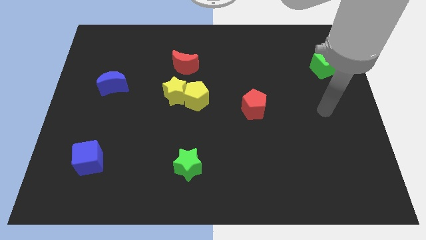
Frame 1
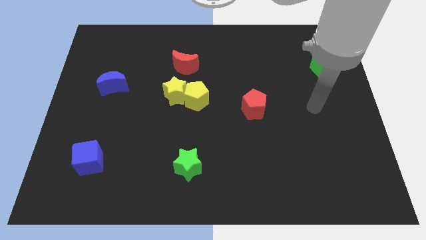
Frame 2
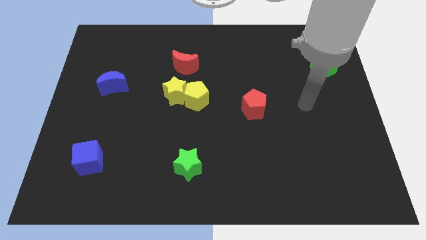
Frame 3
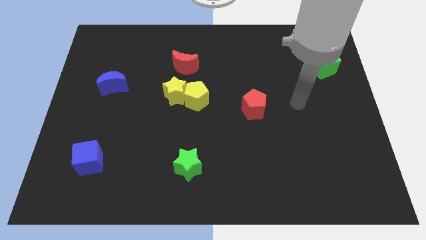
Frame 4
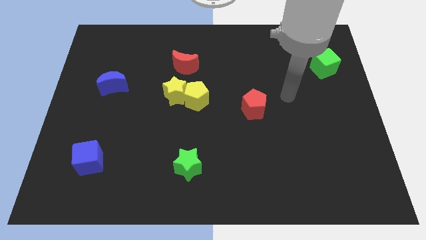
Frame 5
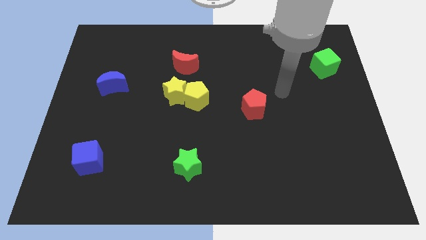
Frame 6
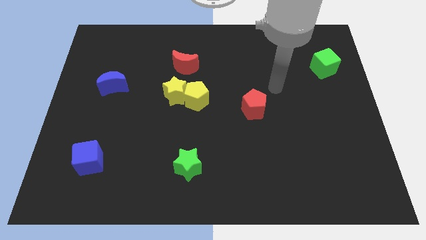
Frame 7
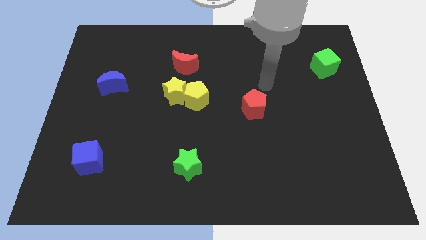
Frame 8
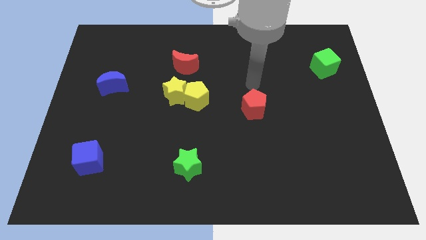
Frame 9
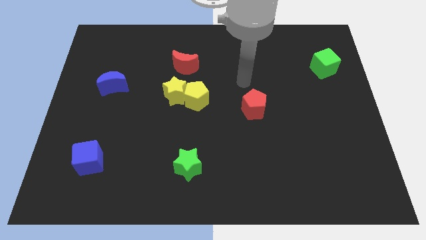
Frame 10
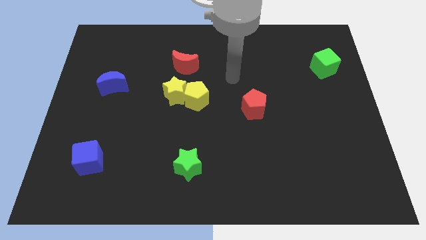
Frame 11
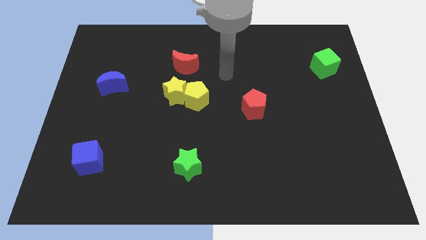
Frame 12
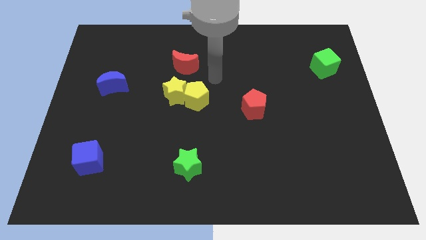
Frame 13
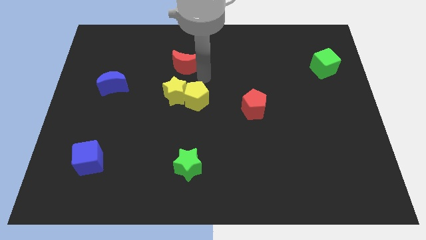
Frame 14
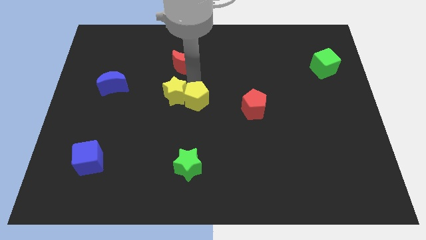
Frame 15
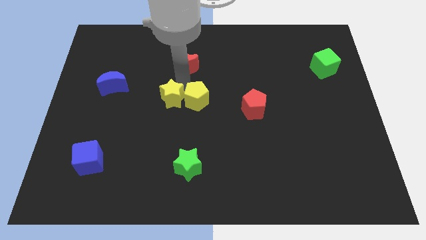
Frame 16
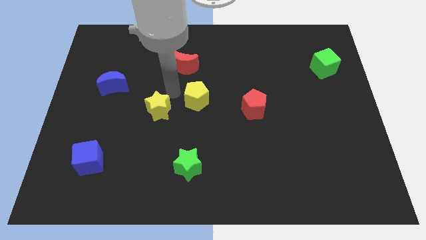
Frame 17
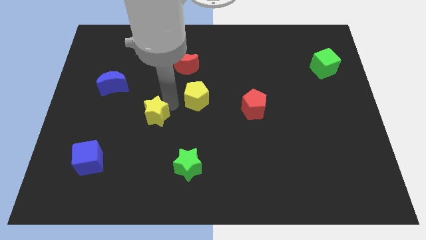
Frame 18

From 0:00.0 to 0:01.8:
separate the yellow pentagon from the yellow star

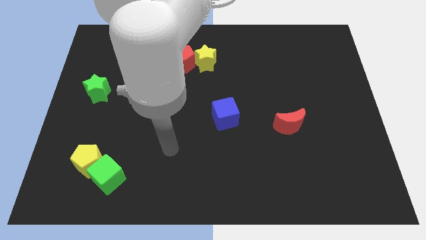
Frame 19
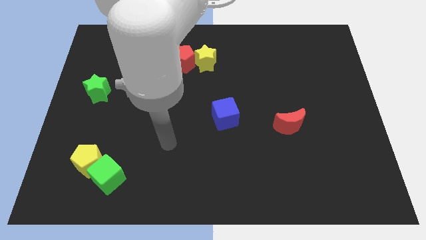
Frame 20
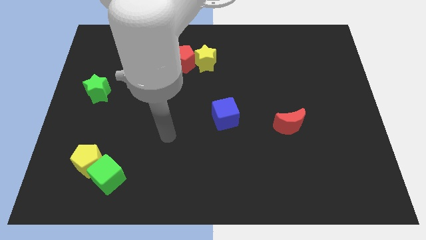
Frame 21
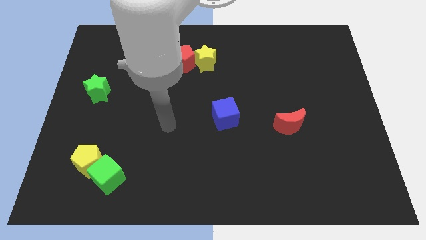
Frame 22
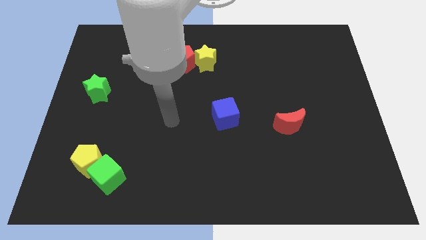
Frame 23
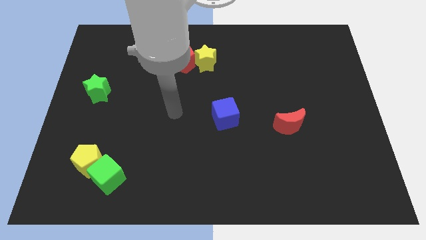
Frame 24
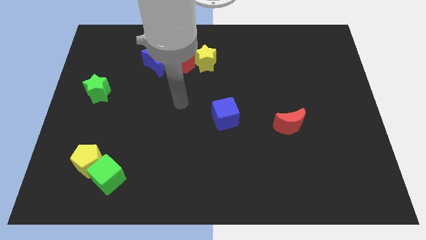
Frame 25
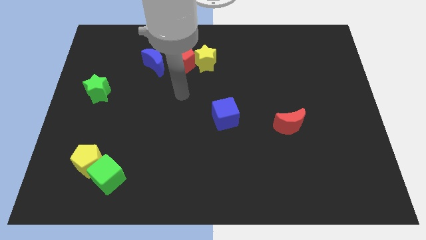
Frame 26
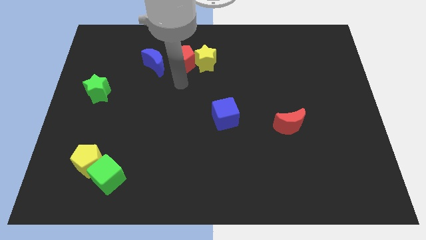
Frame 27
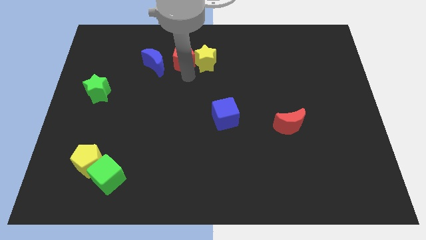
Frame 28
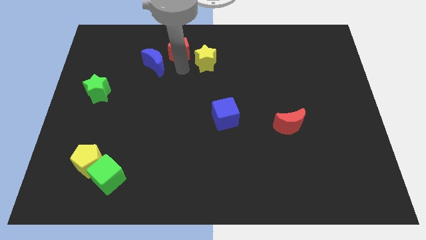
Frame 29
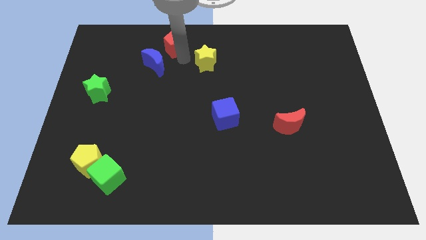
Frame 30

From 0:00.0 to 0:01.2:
move the yellow star away from the red pentagon

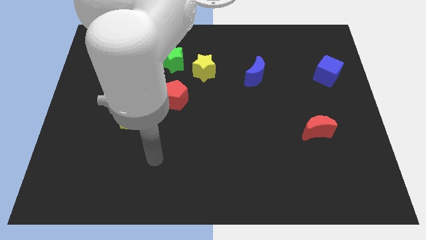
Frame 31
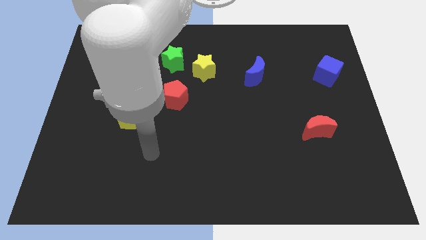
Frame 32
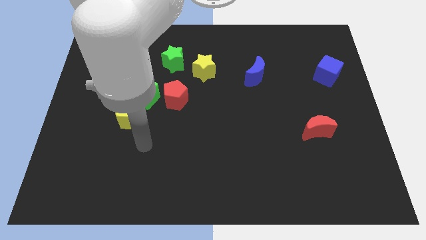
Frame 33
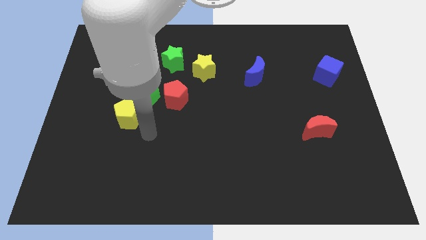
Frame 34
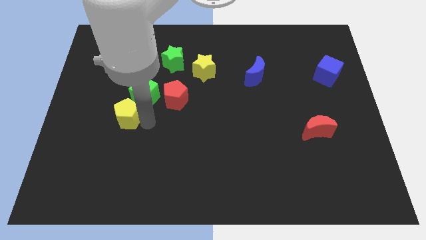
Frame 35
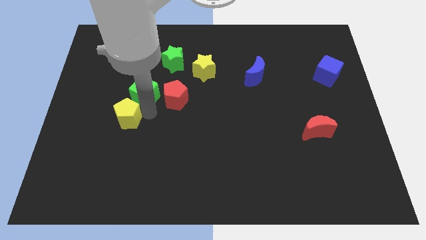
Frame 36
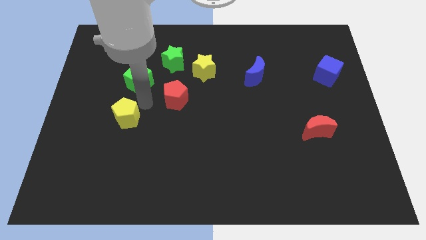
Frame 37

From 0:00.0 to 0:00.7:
move the yellow pentagon away from the green cube

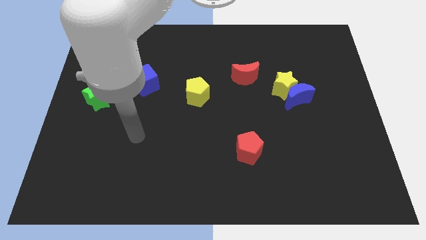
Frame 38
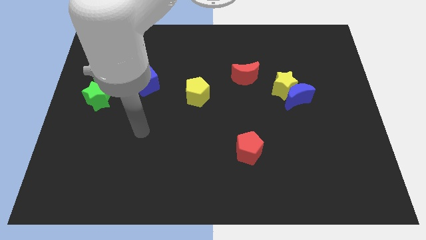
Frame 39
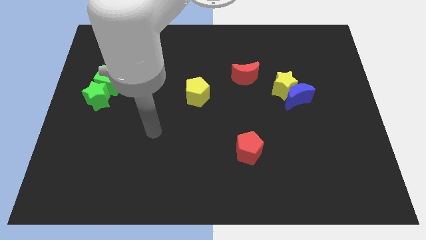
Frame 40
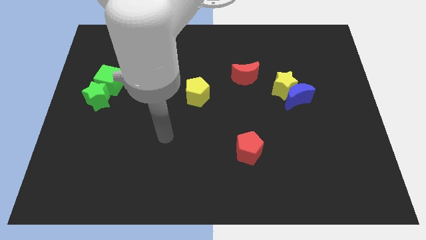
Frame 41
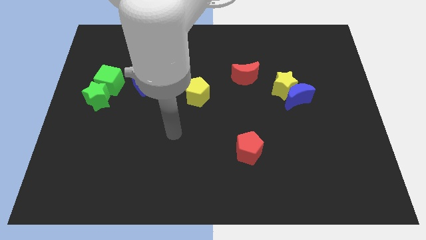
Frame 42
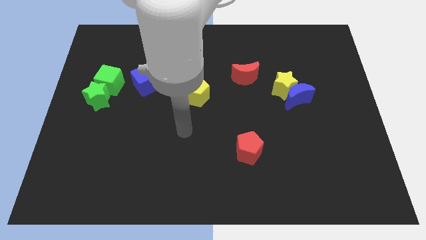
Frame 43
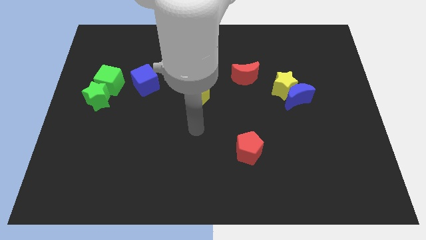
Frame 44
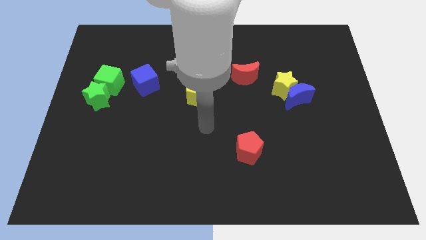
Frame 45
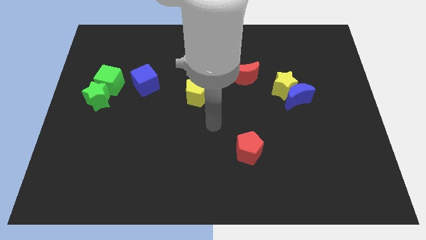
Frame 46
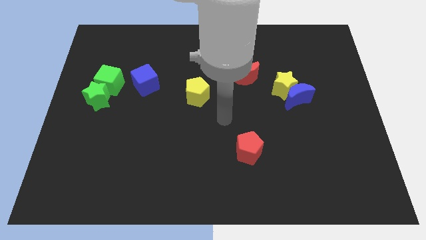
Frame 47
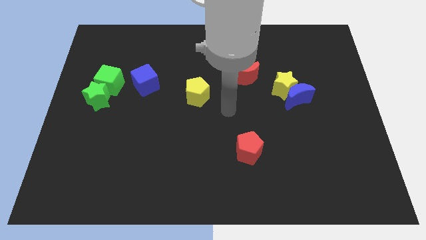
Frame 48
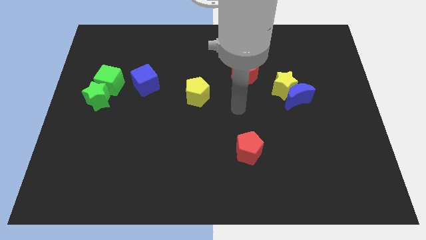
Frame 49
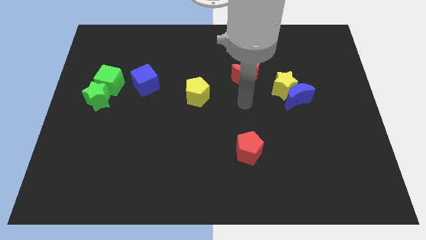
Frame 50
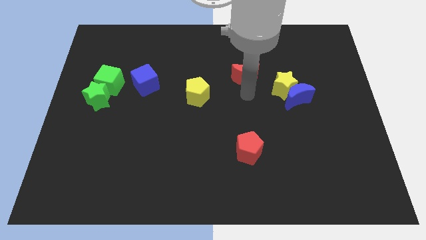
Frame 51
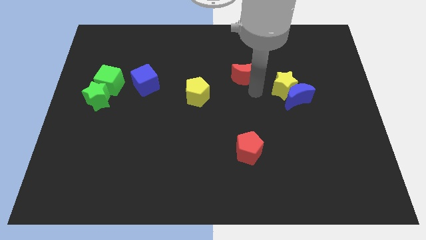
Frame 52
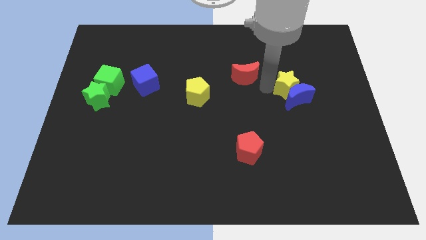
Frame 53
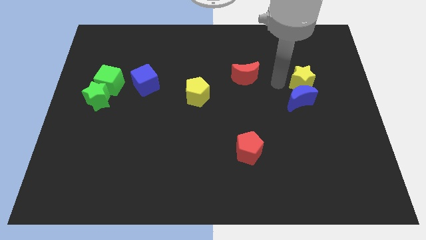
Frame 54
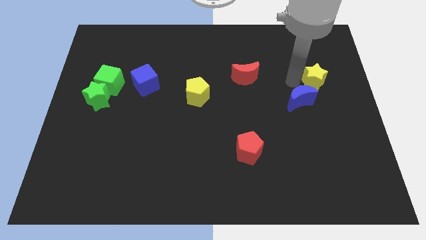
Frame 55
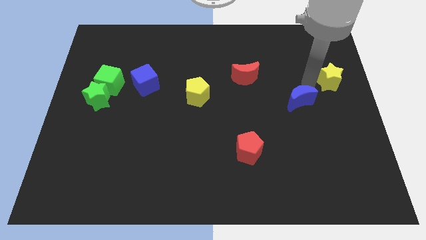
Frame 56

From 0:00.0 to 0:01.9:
pull the blue moon apart from the yellow star

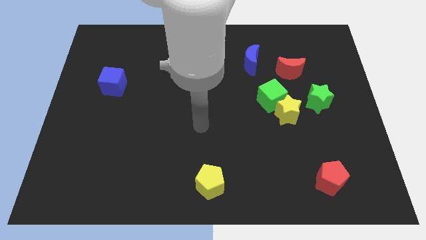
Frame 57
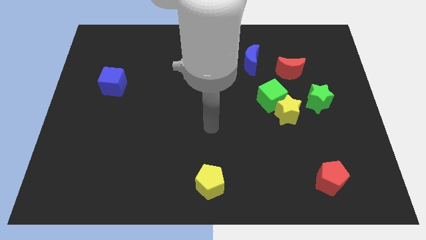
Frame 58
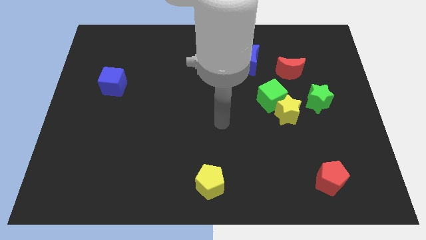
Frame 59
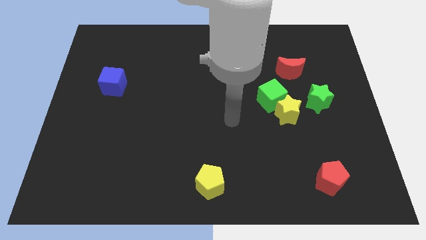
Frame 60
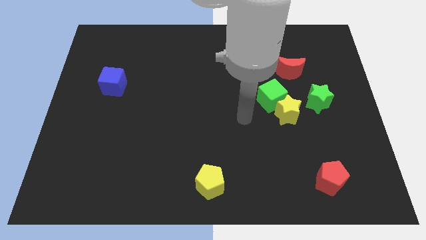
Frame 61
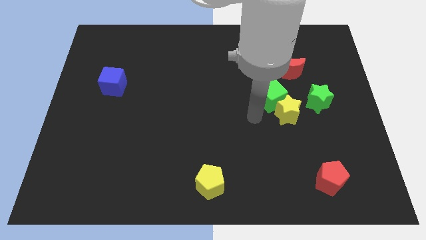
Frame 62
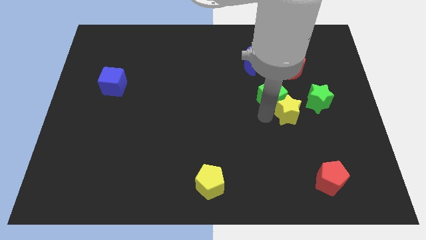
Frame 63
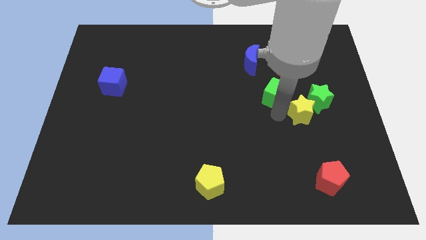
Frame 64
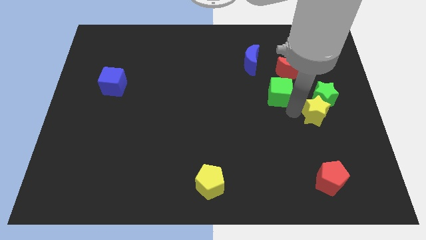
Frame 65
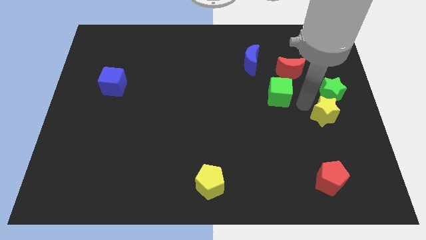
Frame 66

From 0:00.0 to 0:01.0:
pull the green cube apart from the yellow star

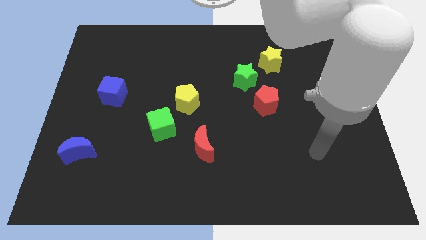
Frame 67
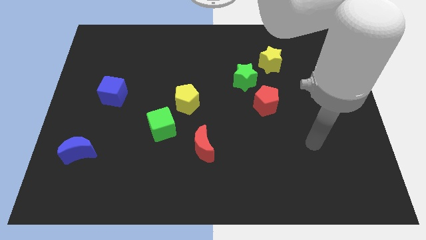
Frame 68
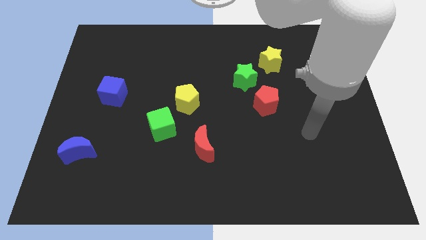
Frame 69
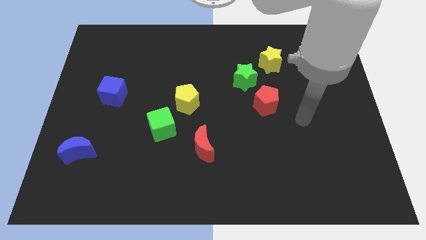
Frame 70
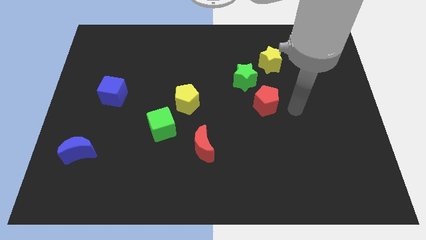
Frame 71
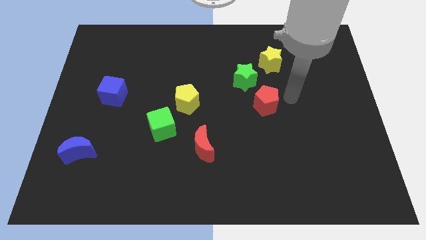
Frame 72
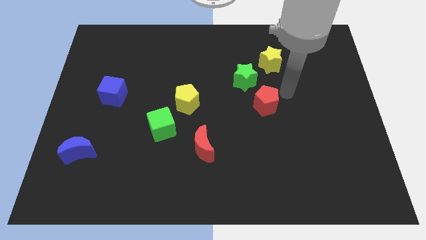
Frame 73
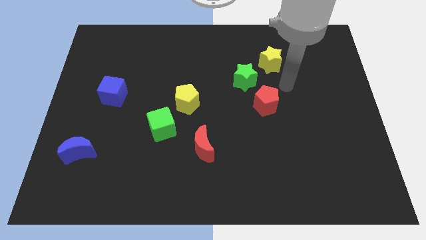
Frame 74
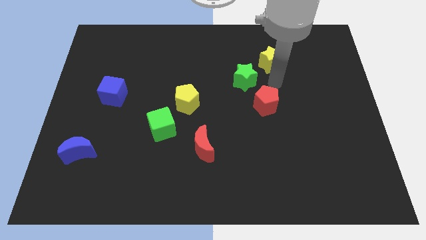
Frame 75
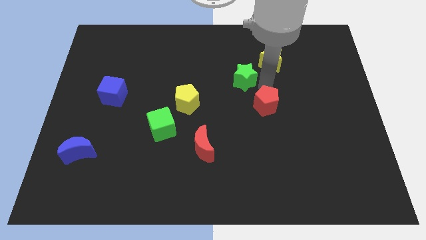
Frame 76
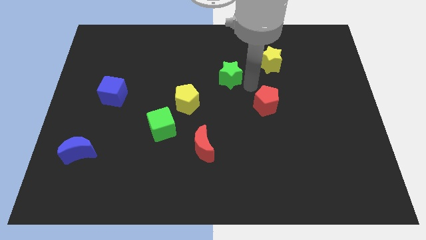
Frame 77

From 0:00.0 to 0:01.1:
move the red pentagon away from the green star

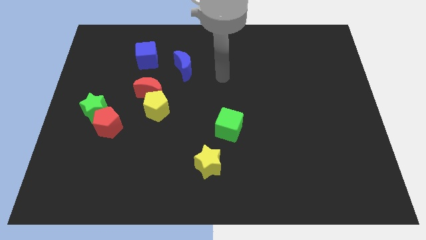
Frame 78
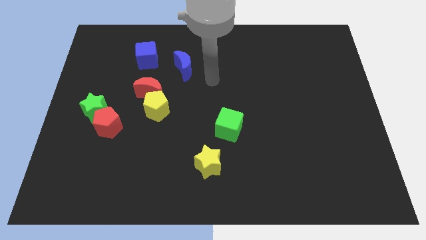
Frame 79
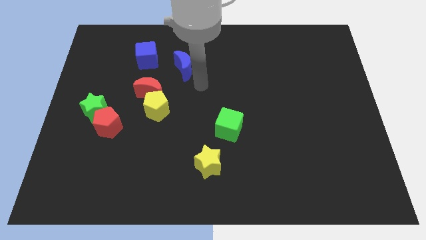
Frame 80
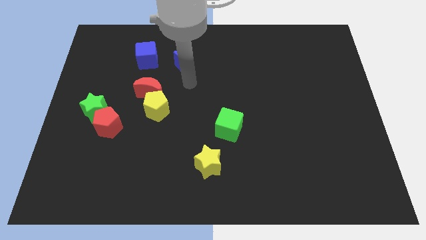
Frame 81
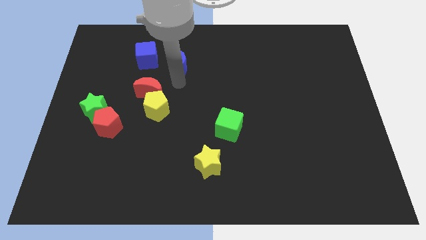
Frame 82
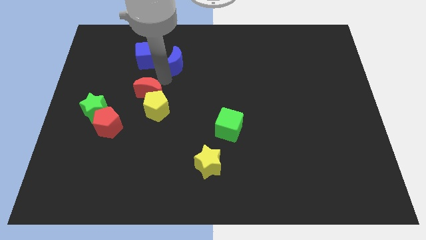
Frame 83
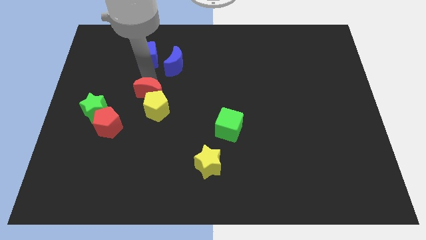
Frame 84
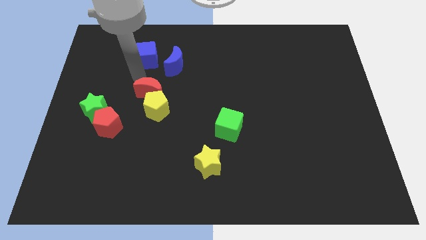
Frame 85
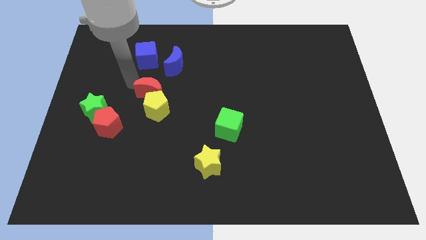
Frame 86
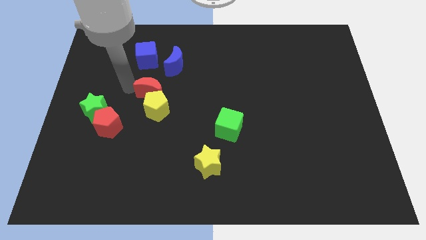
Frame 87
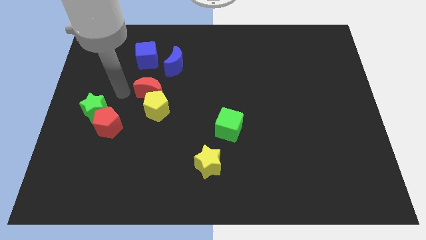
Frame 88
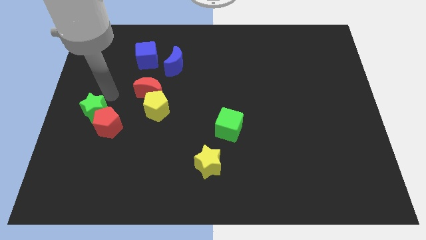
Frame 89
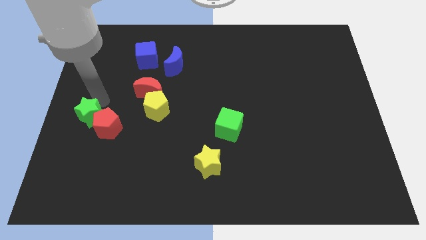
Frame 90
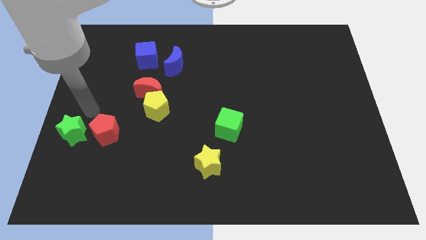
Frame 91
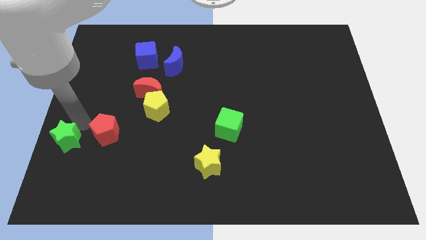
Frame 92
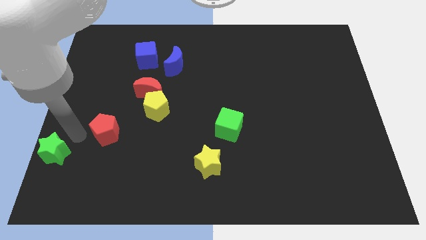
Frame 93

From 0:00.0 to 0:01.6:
separate the red pentagon from the green star
